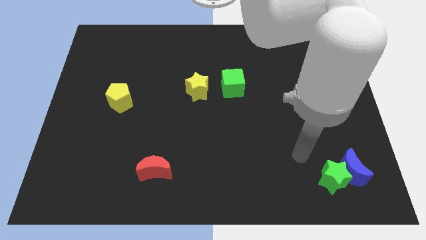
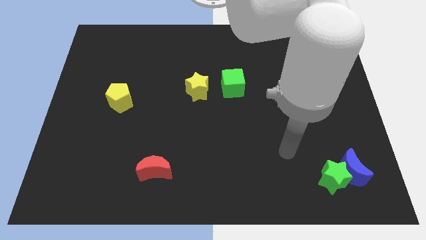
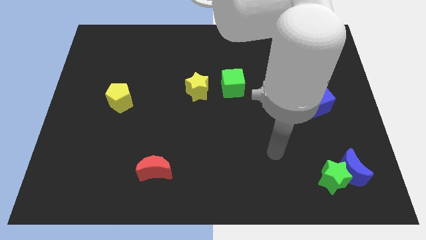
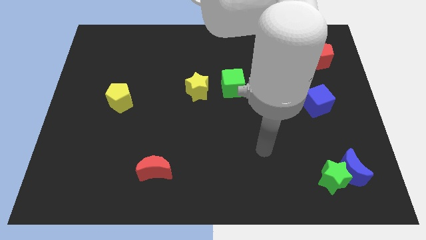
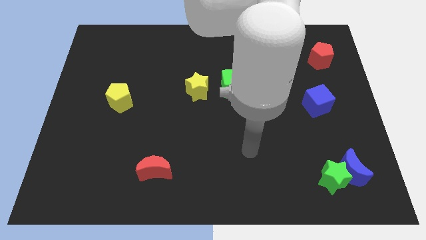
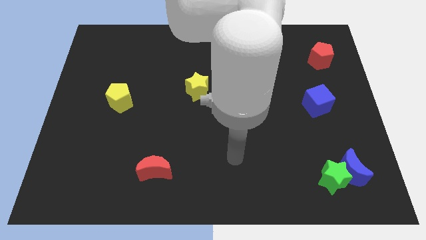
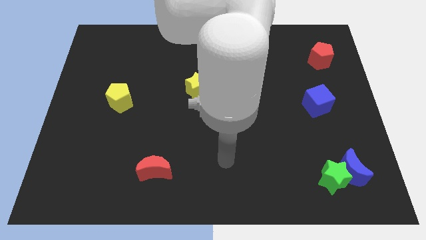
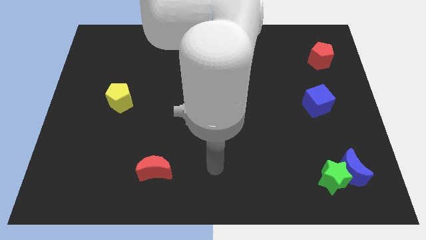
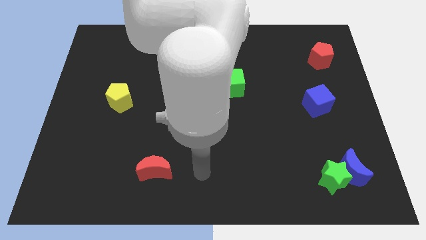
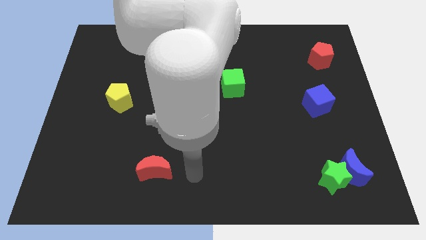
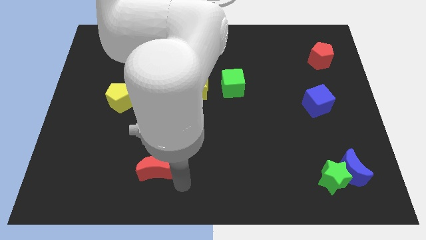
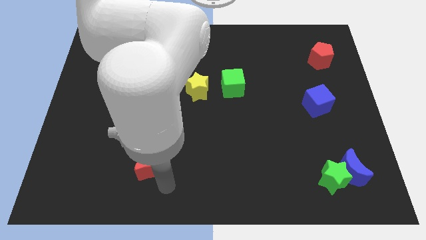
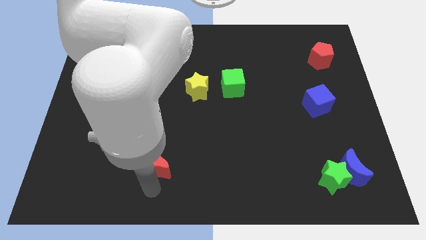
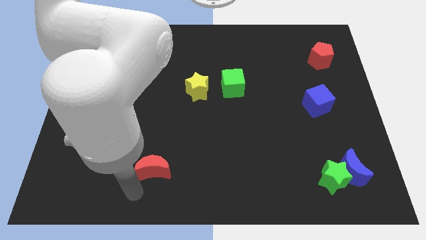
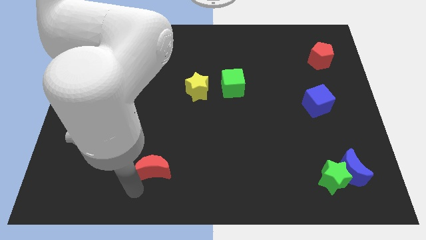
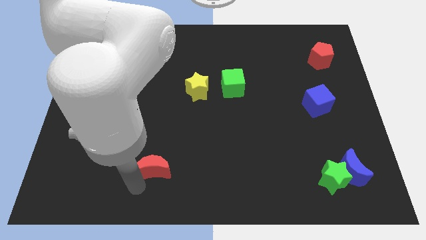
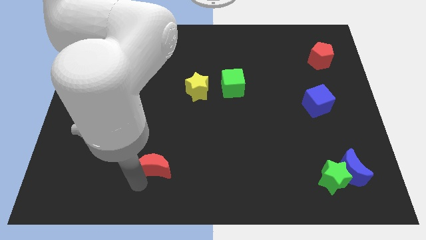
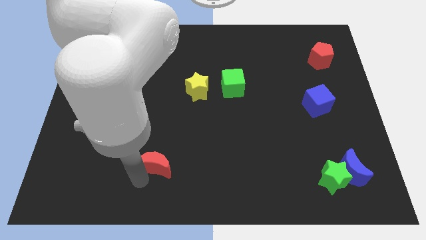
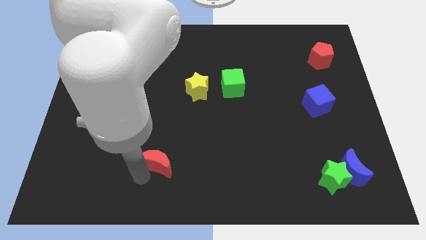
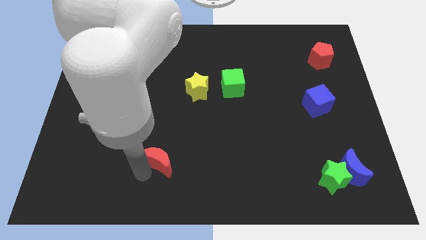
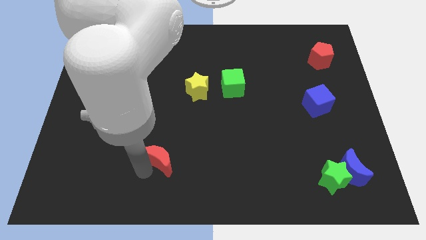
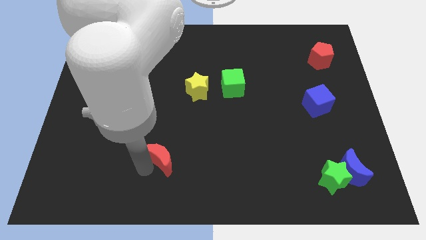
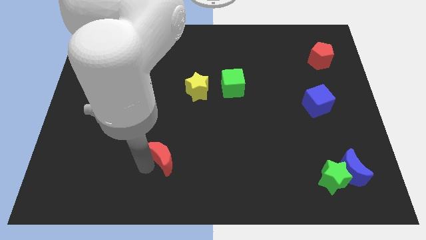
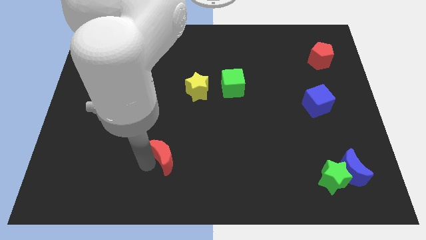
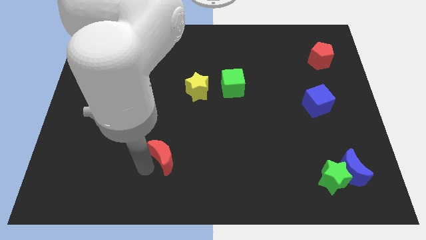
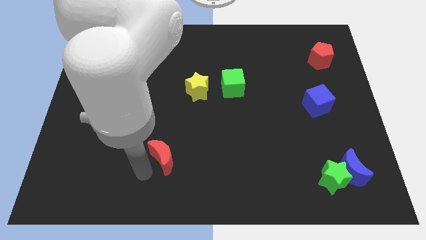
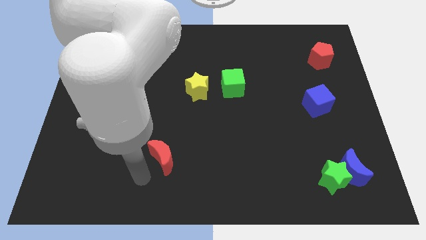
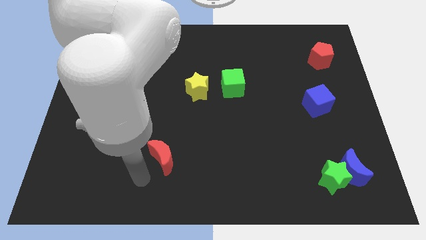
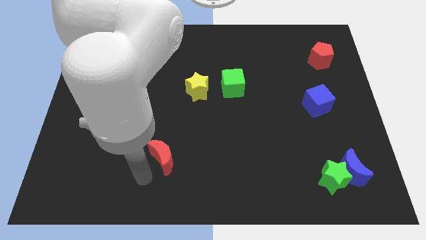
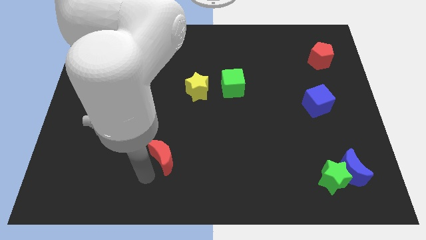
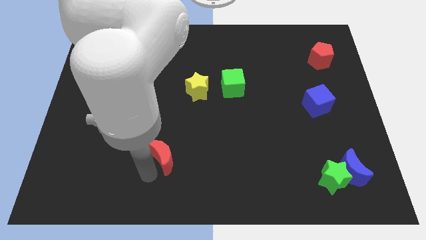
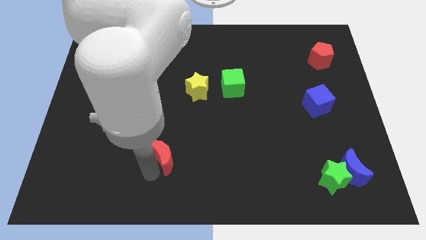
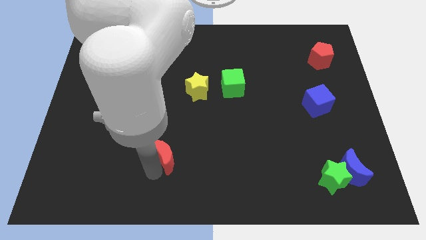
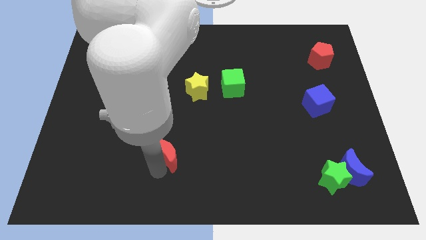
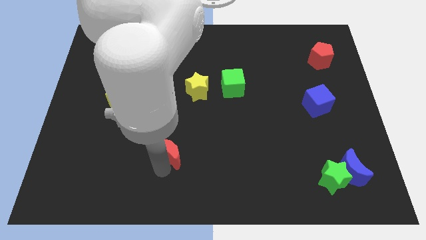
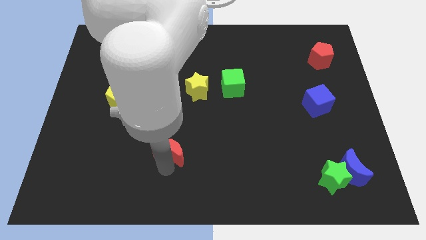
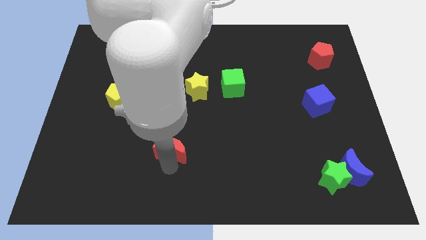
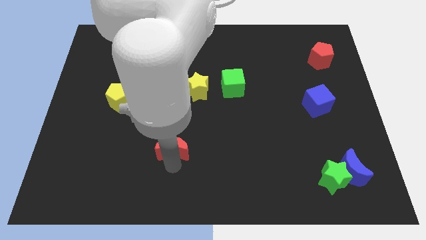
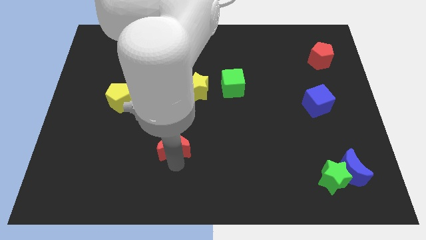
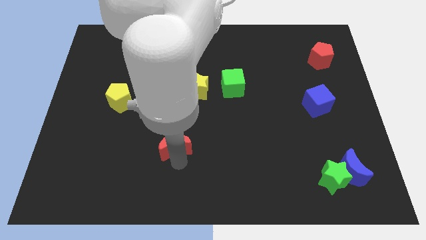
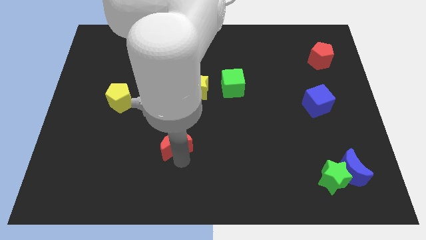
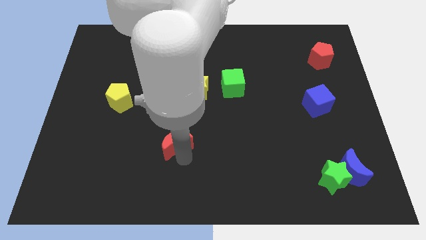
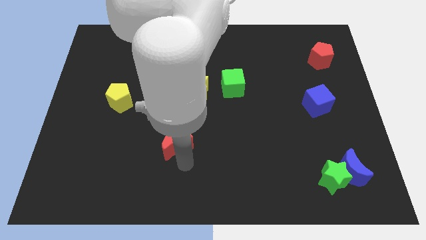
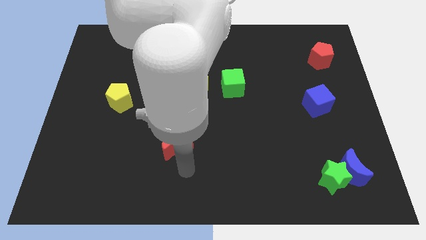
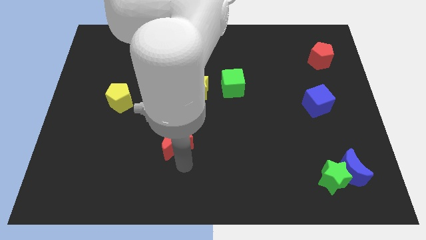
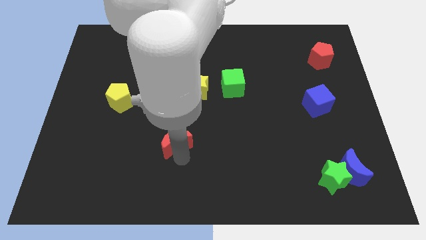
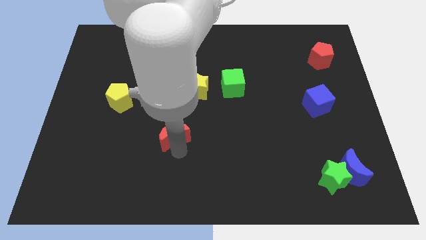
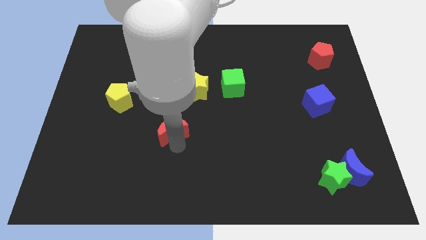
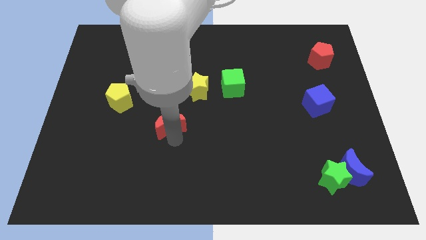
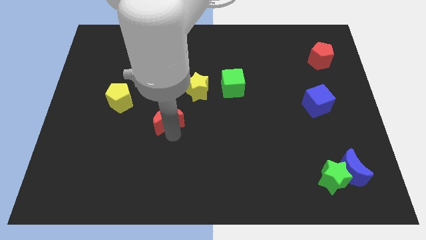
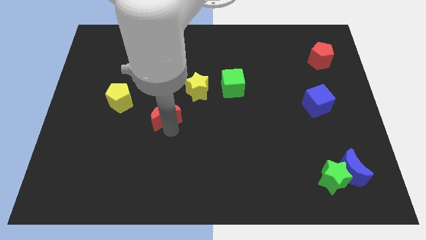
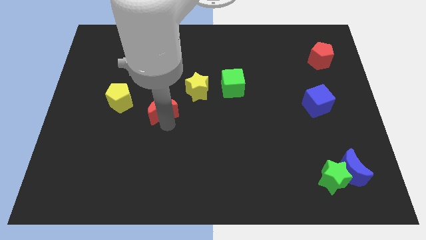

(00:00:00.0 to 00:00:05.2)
put the red moon to the right side of the yellow pentagon

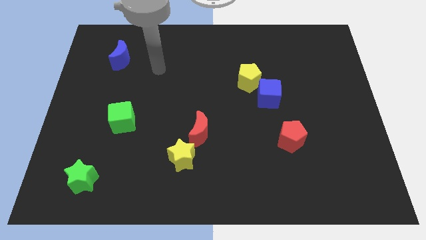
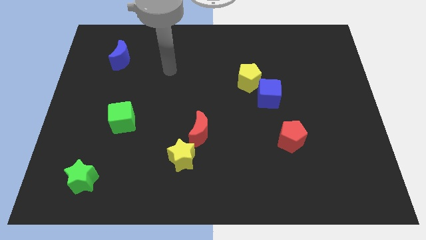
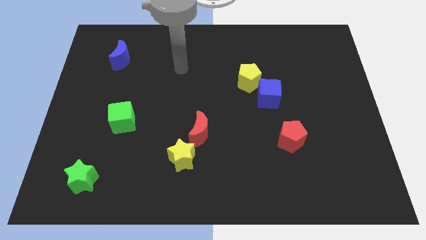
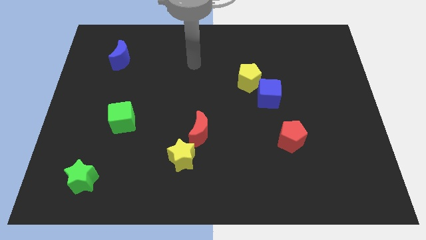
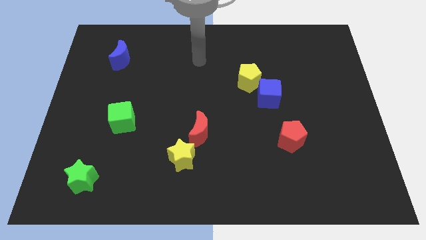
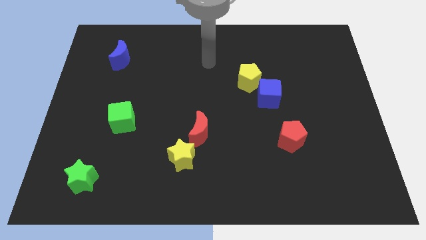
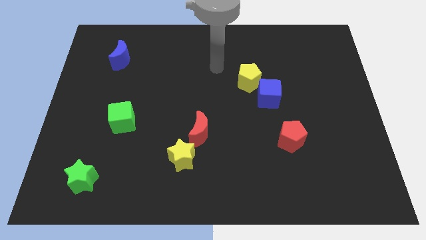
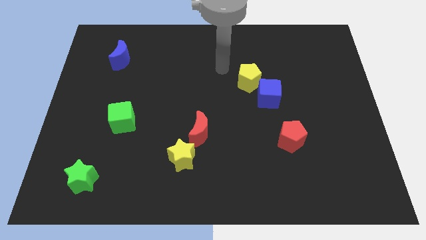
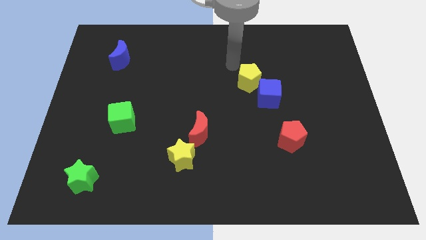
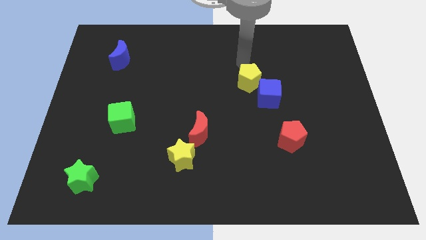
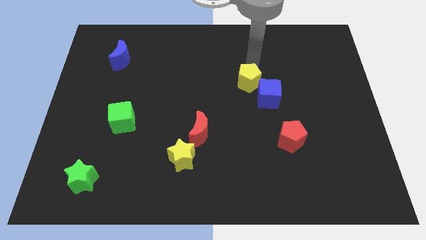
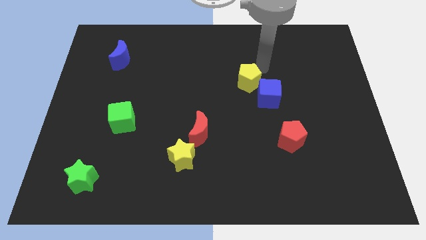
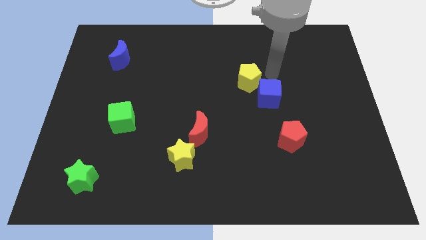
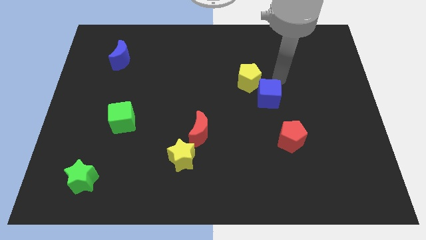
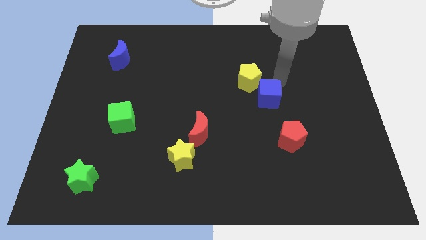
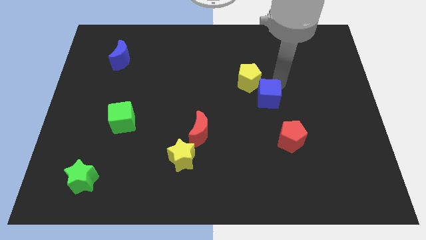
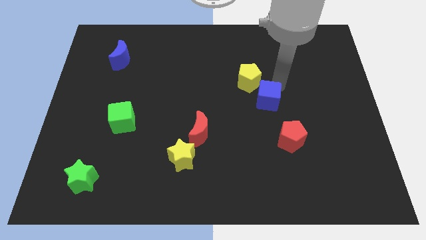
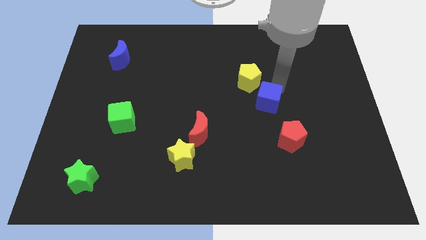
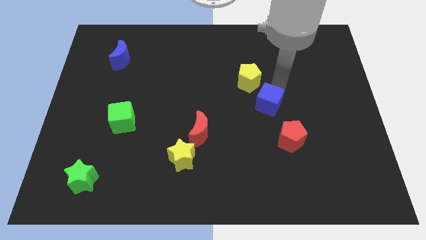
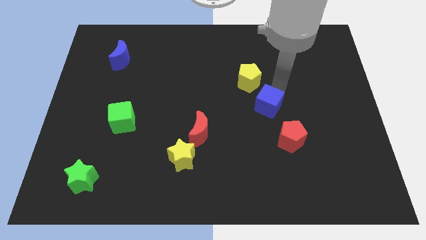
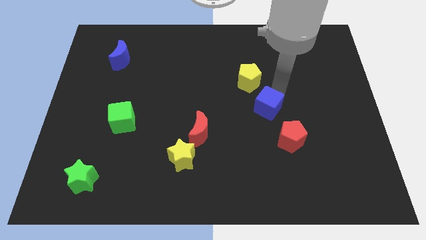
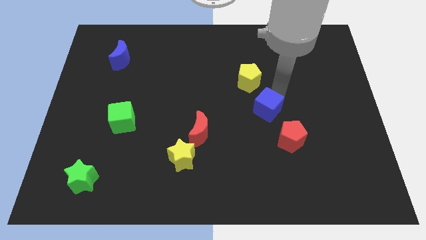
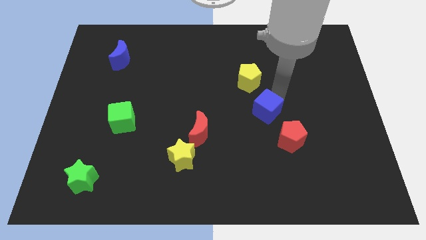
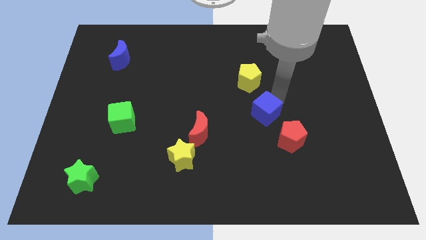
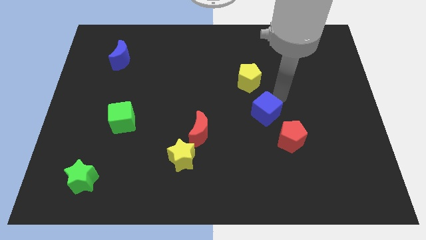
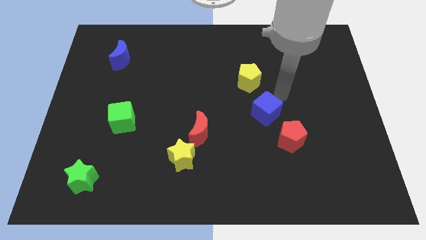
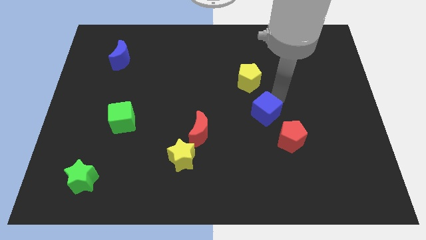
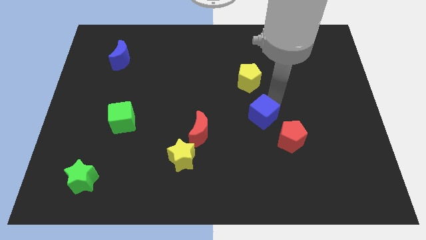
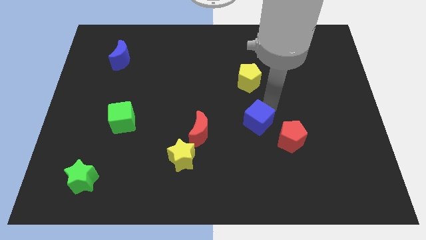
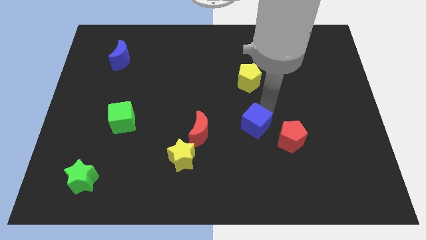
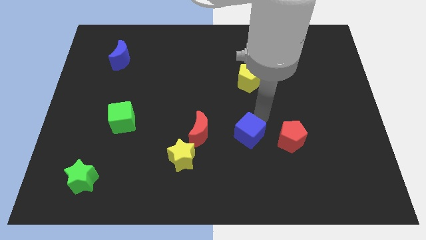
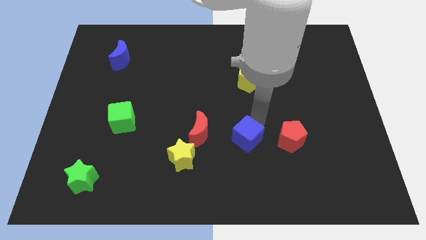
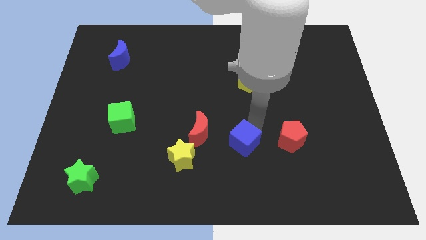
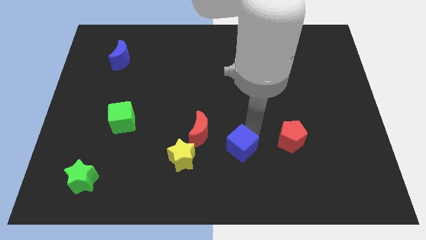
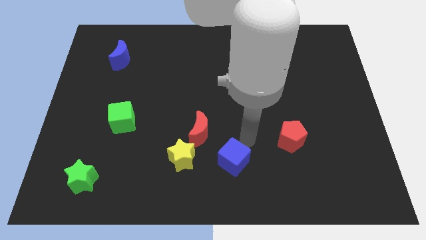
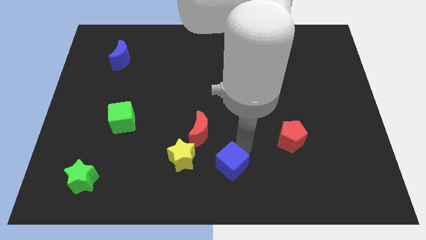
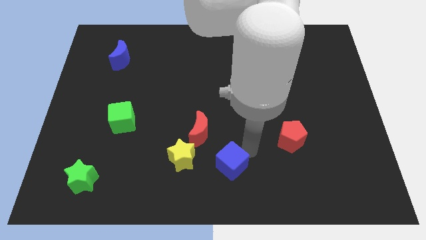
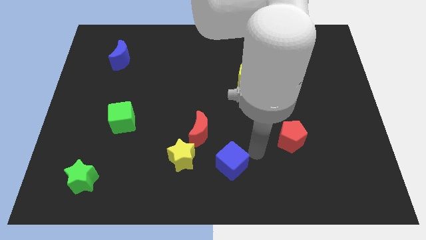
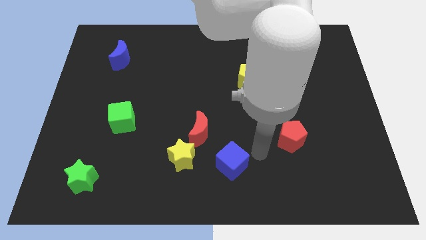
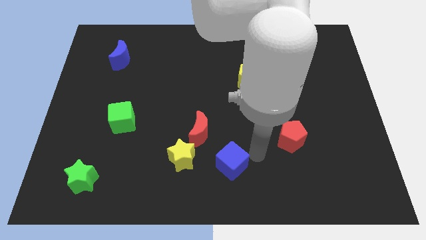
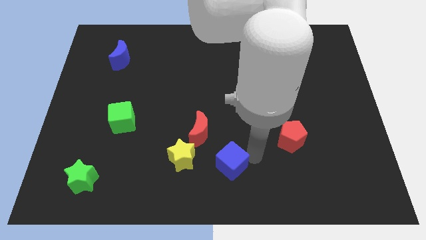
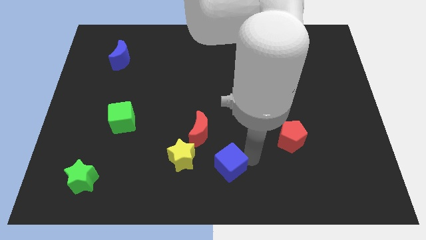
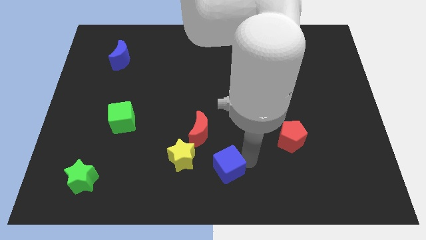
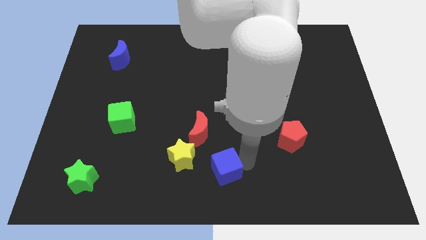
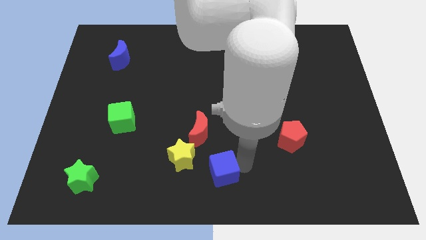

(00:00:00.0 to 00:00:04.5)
move the blue cube below the red moon
